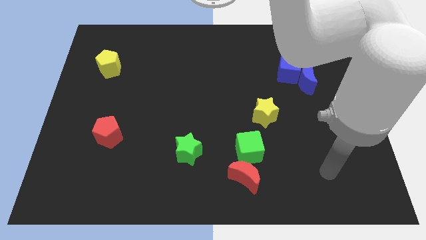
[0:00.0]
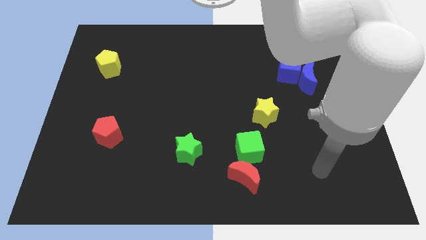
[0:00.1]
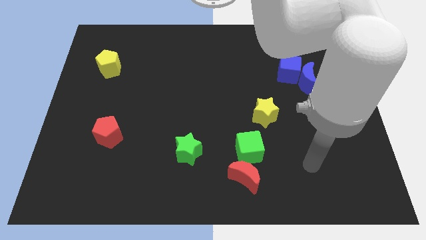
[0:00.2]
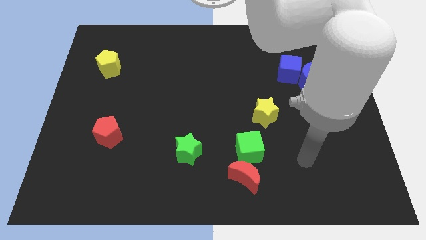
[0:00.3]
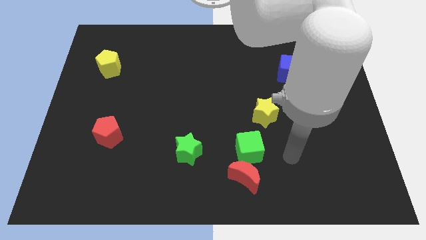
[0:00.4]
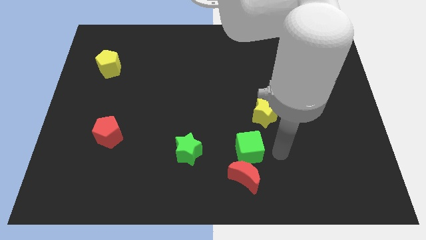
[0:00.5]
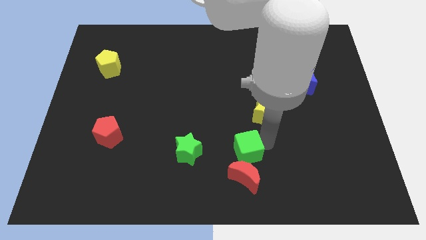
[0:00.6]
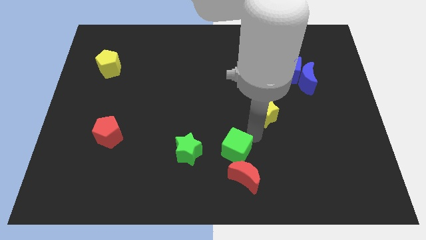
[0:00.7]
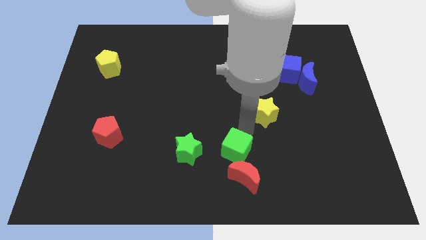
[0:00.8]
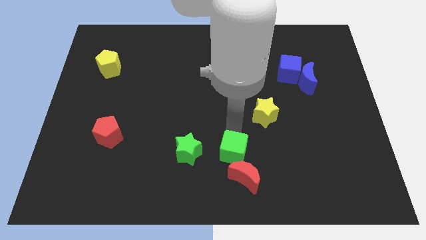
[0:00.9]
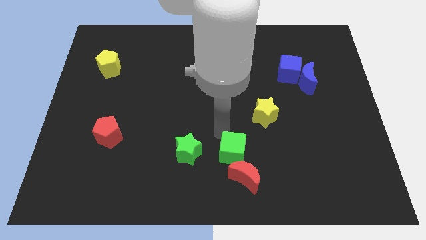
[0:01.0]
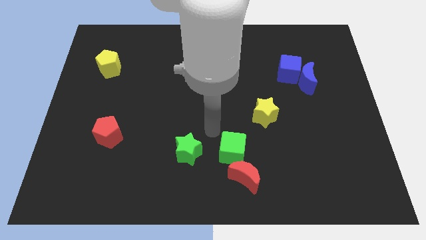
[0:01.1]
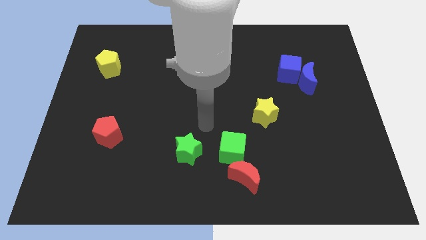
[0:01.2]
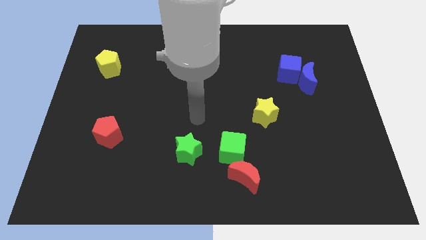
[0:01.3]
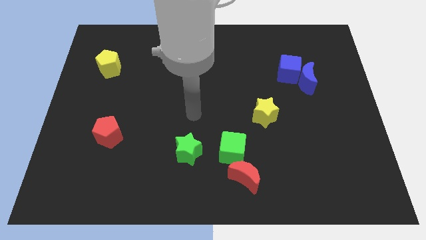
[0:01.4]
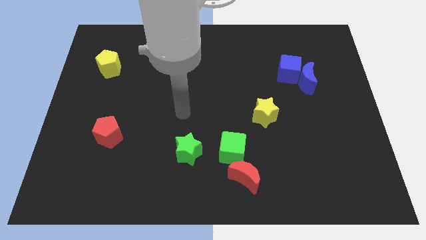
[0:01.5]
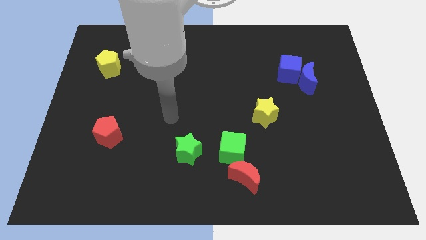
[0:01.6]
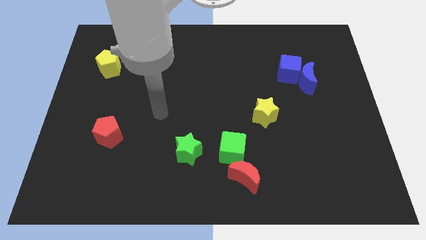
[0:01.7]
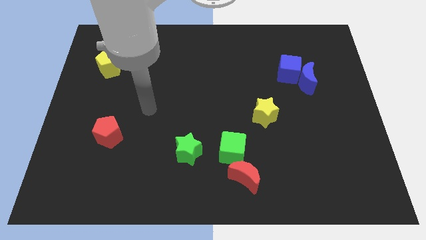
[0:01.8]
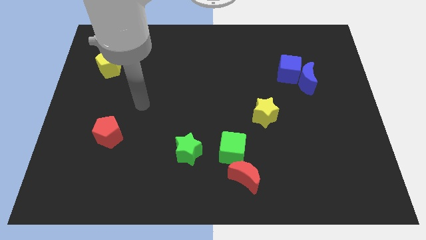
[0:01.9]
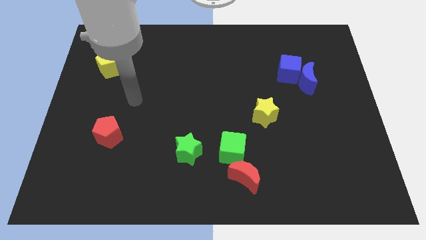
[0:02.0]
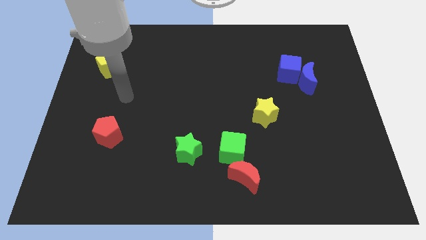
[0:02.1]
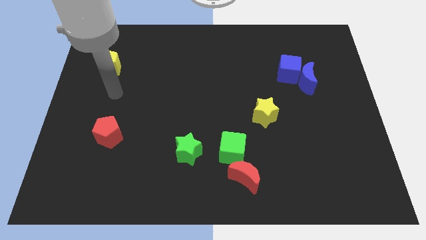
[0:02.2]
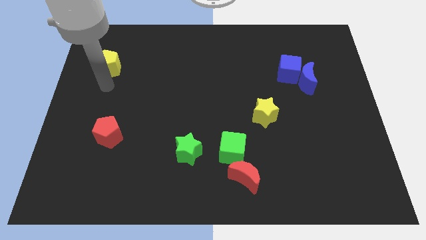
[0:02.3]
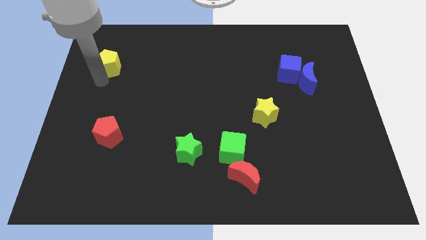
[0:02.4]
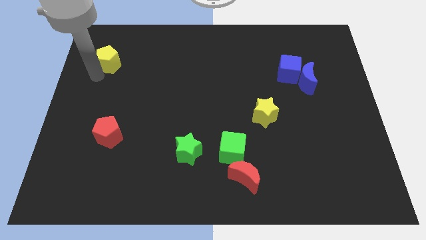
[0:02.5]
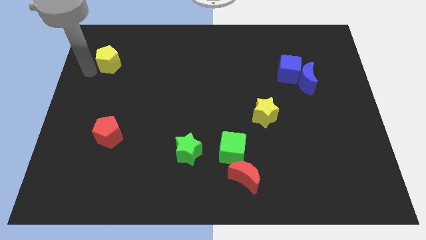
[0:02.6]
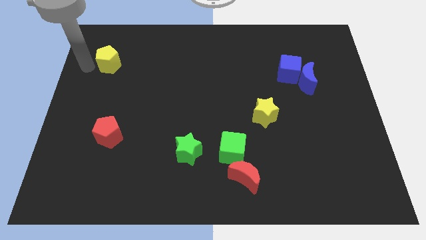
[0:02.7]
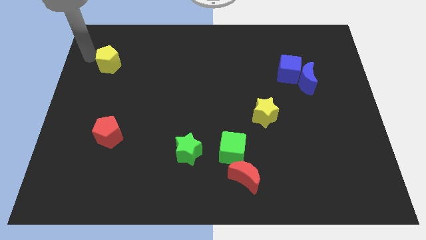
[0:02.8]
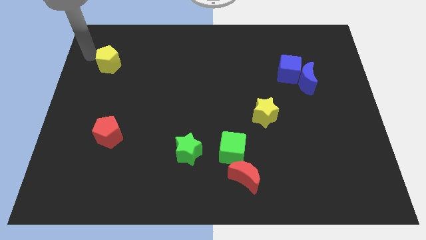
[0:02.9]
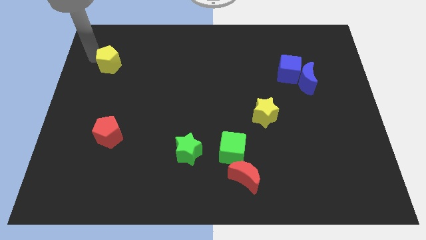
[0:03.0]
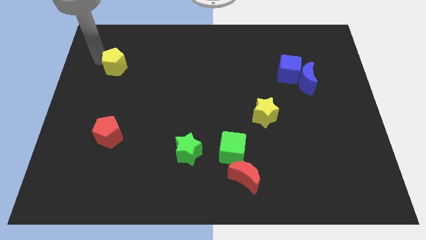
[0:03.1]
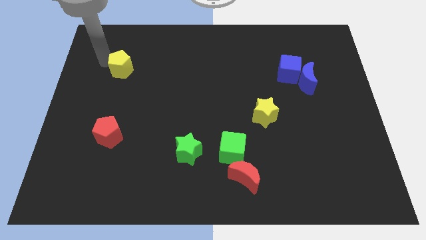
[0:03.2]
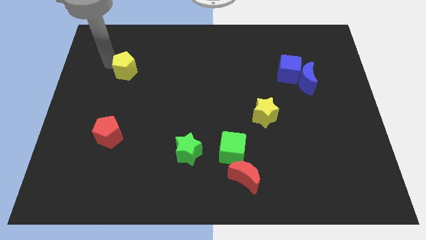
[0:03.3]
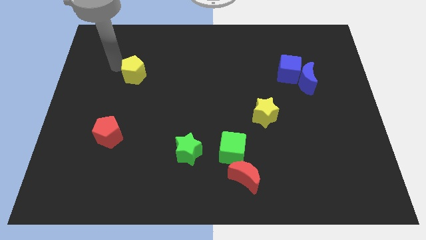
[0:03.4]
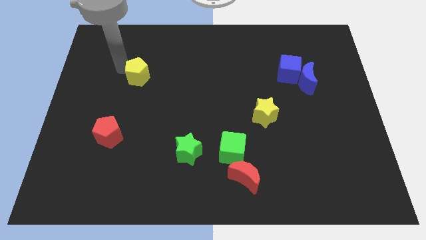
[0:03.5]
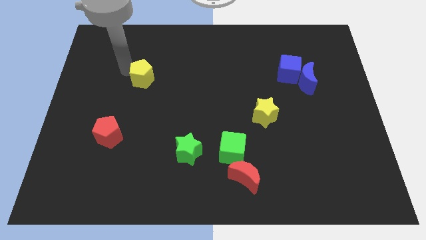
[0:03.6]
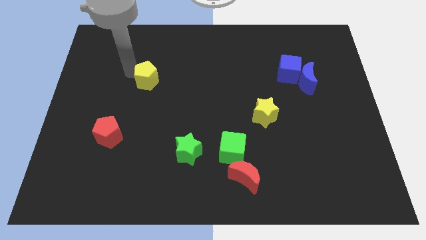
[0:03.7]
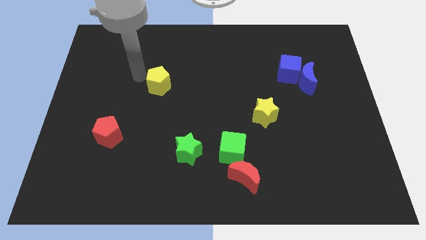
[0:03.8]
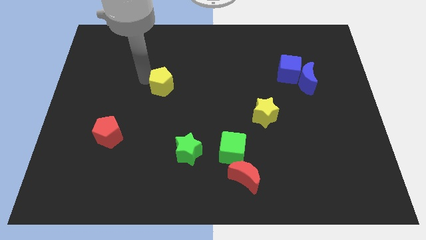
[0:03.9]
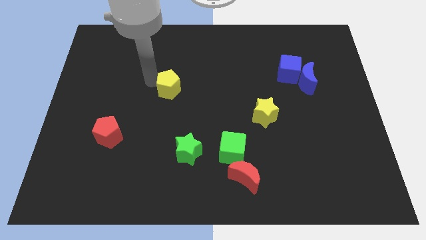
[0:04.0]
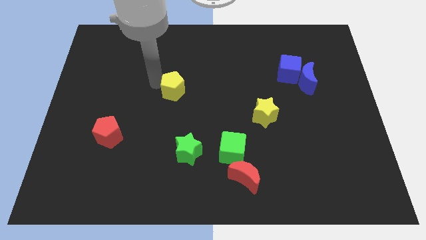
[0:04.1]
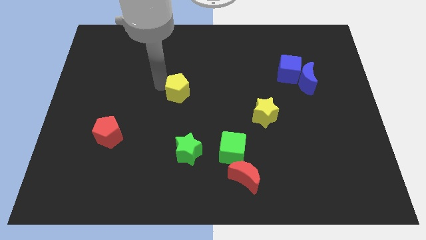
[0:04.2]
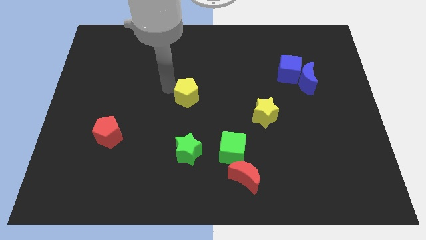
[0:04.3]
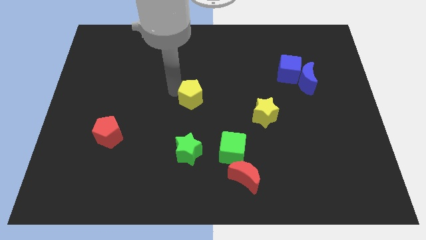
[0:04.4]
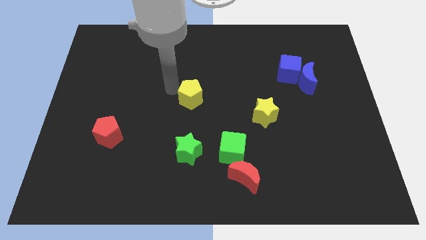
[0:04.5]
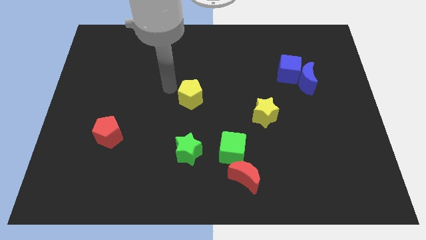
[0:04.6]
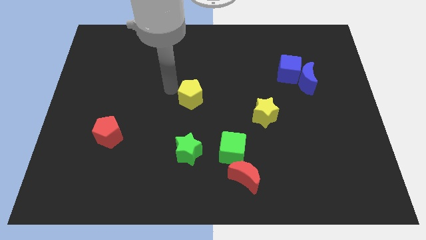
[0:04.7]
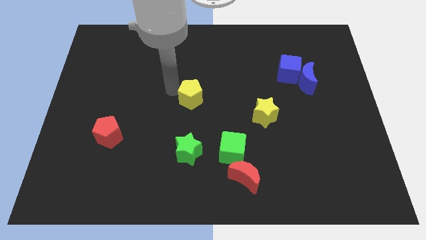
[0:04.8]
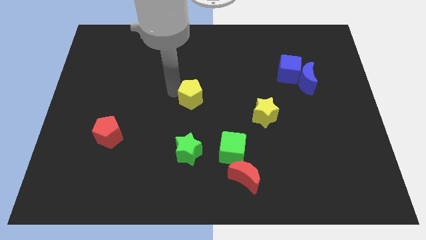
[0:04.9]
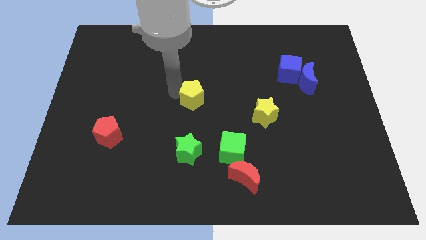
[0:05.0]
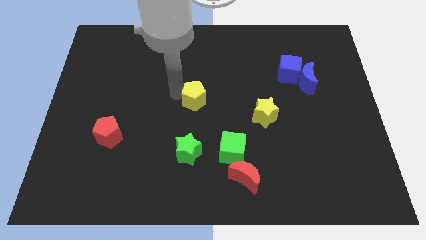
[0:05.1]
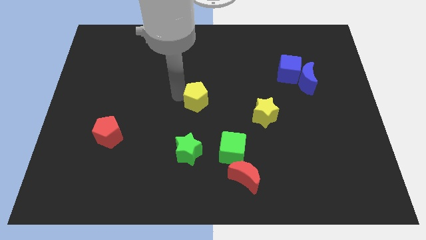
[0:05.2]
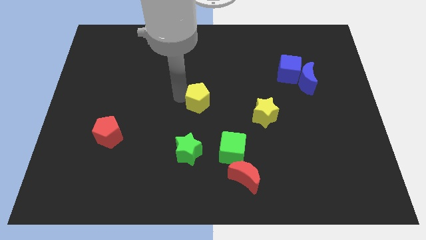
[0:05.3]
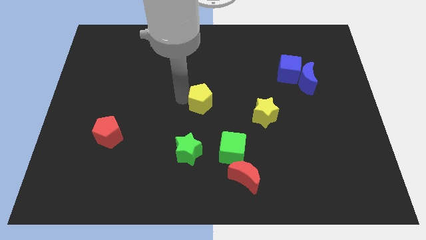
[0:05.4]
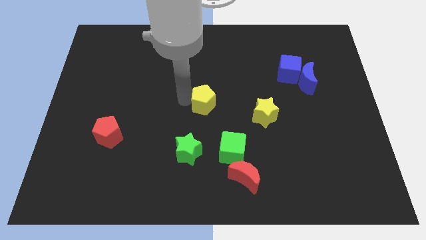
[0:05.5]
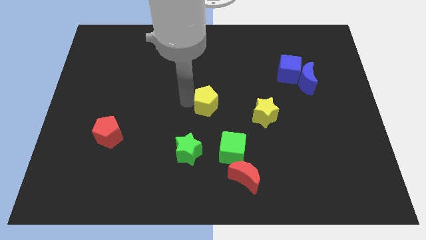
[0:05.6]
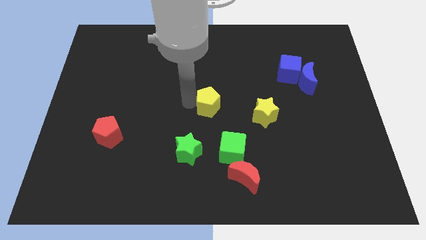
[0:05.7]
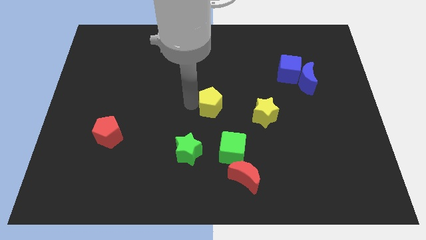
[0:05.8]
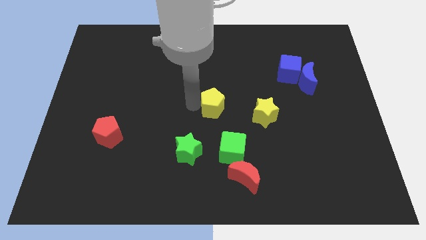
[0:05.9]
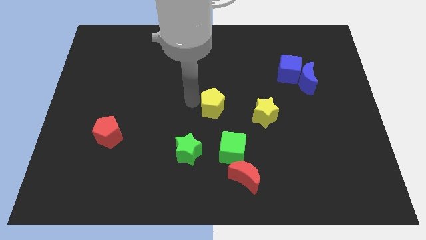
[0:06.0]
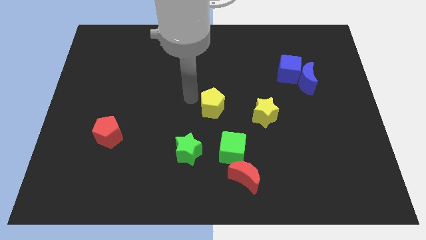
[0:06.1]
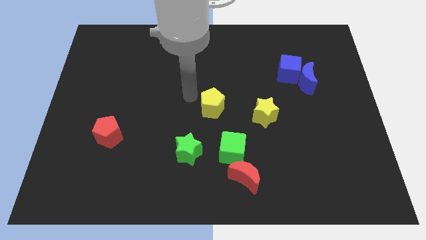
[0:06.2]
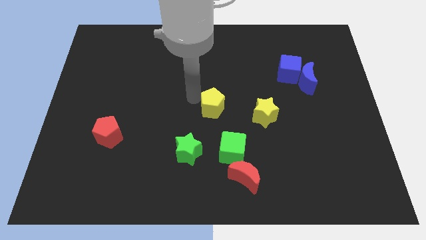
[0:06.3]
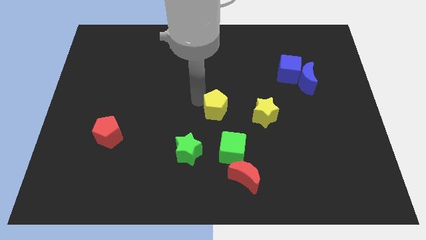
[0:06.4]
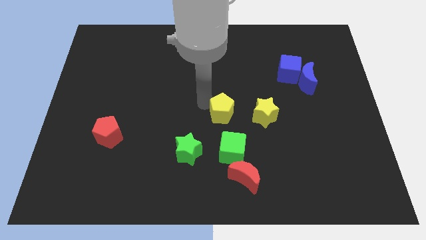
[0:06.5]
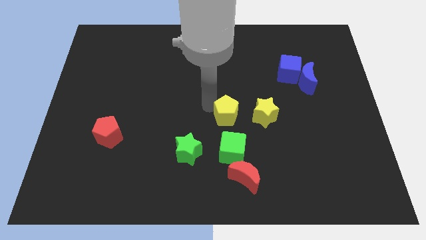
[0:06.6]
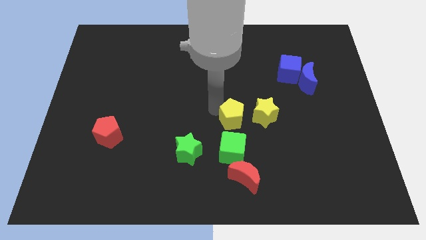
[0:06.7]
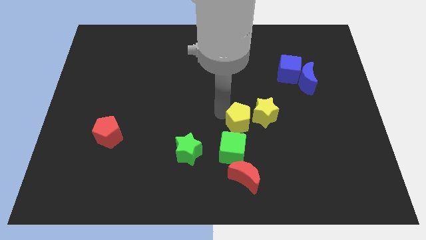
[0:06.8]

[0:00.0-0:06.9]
move the yellow pentagon to the top right side of the green cube
